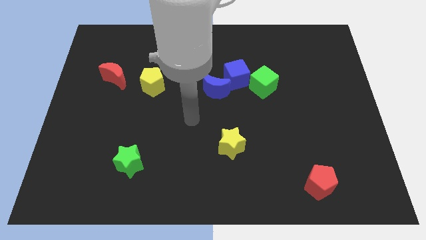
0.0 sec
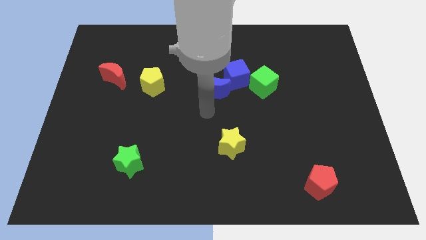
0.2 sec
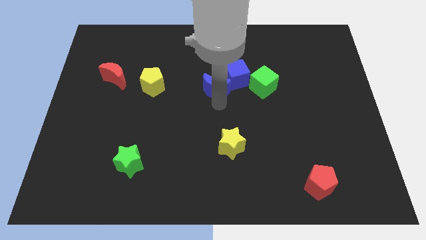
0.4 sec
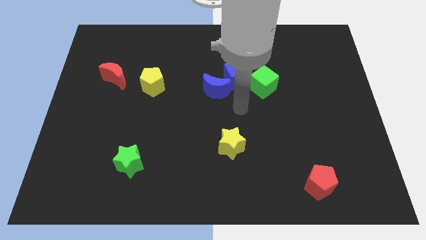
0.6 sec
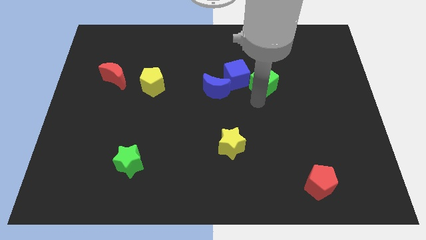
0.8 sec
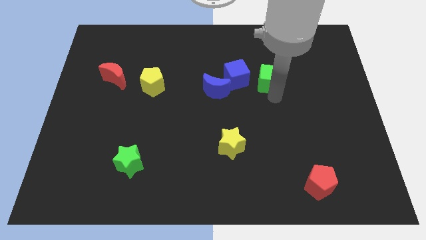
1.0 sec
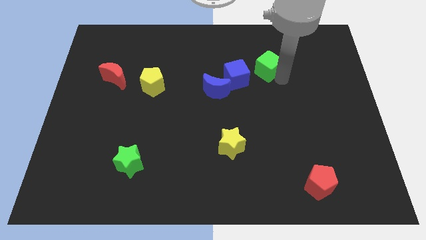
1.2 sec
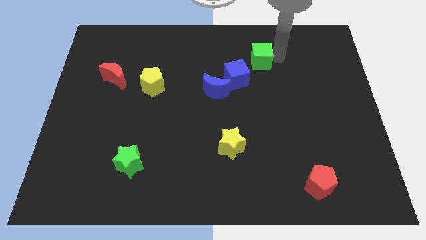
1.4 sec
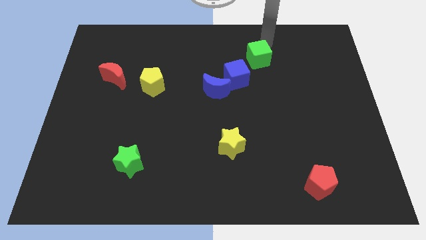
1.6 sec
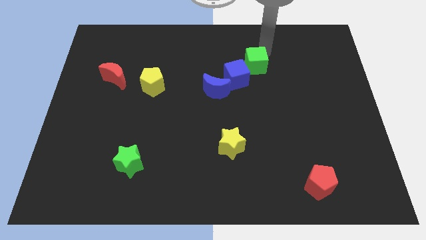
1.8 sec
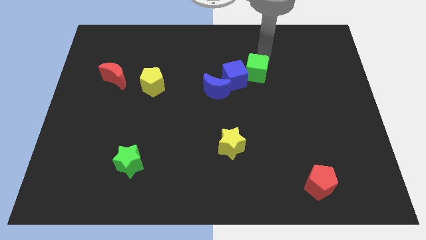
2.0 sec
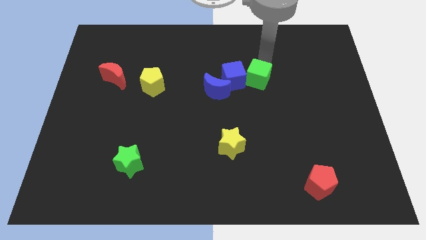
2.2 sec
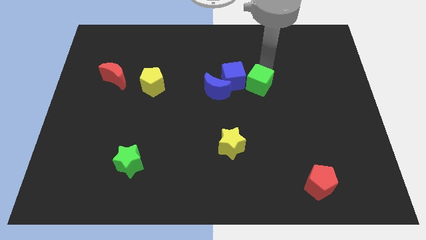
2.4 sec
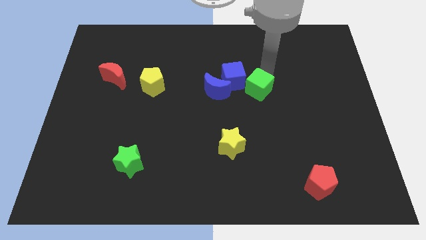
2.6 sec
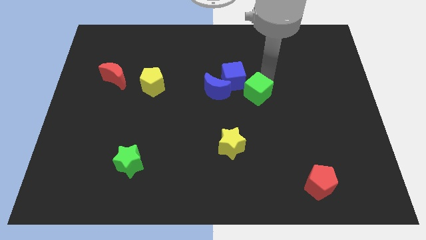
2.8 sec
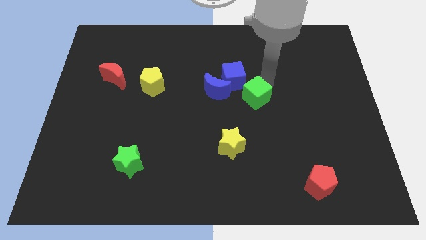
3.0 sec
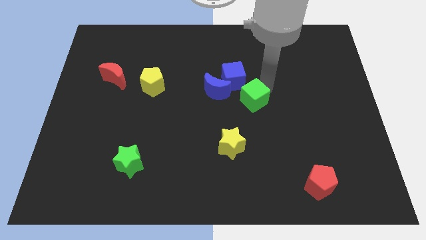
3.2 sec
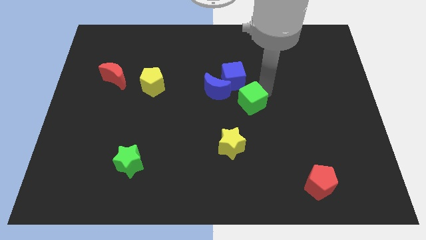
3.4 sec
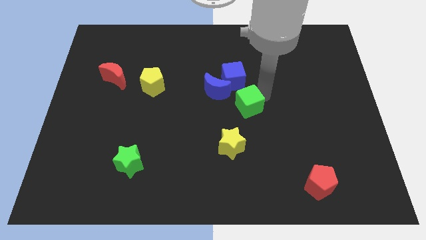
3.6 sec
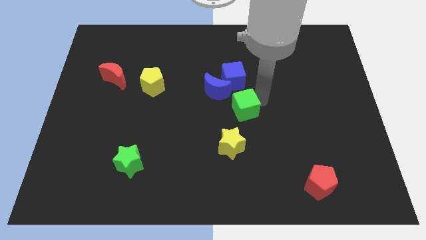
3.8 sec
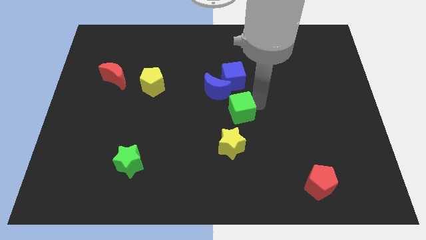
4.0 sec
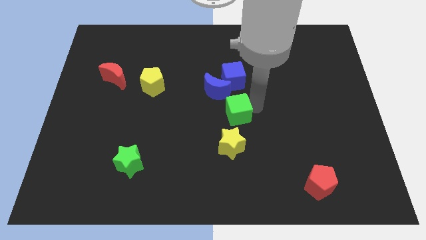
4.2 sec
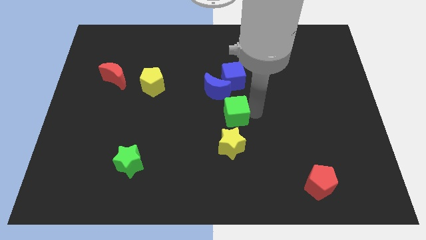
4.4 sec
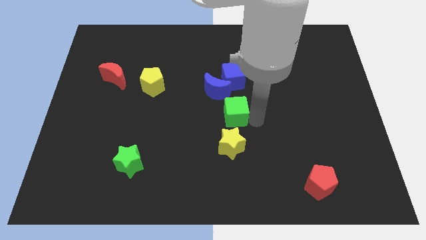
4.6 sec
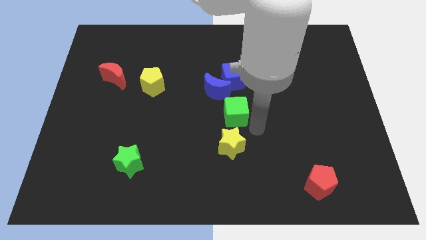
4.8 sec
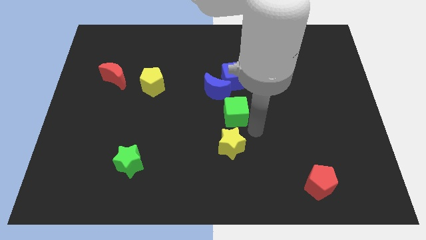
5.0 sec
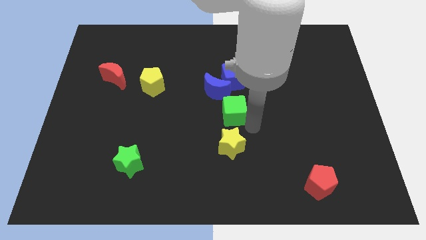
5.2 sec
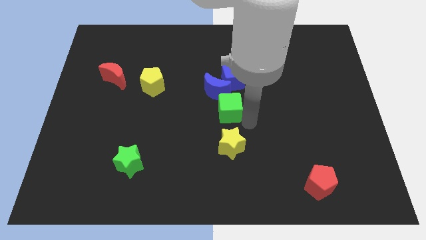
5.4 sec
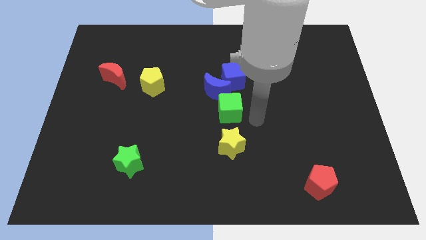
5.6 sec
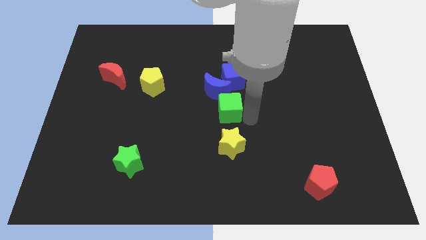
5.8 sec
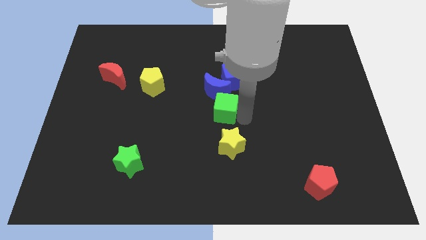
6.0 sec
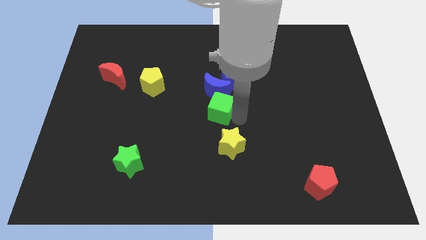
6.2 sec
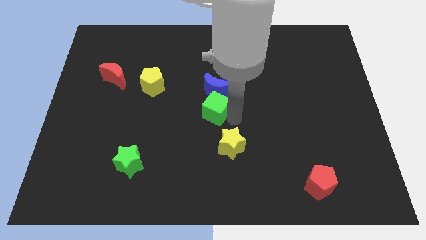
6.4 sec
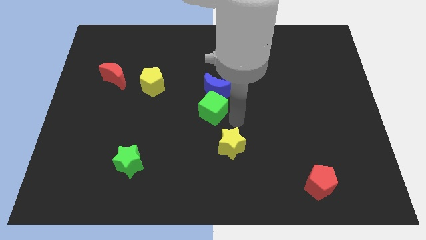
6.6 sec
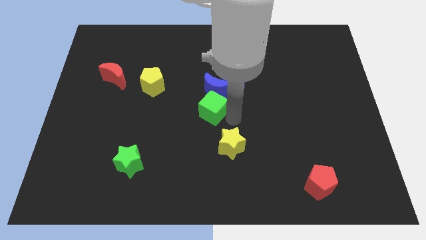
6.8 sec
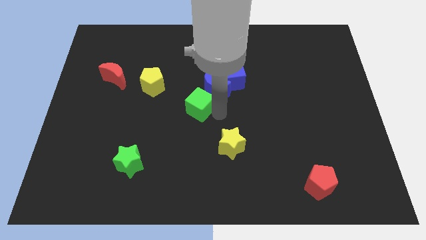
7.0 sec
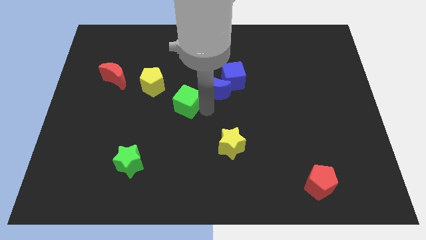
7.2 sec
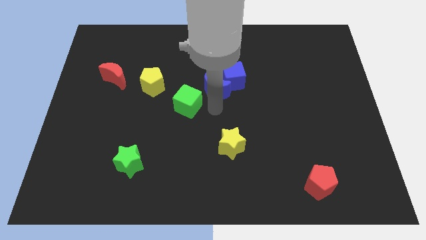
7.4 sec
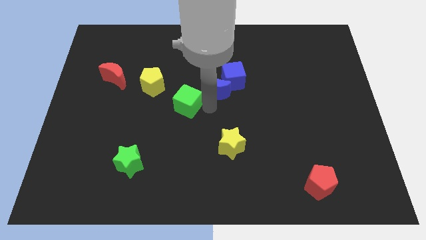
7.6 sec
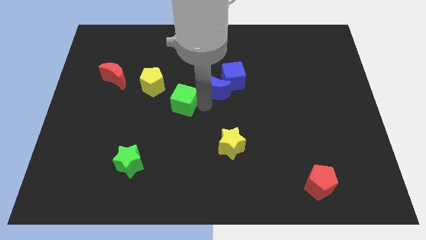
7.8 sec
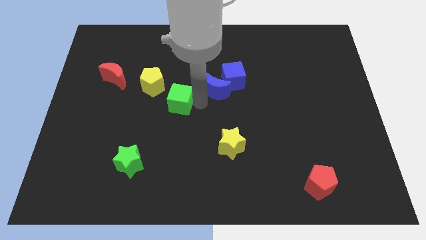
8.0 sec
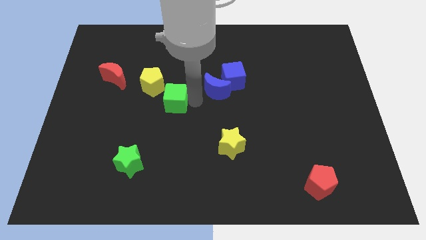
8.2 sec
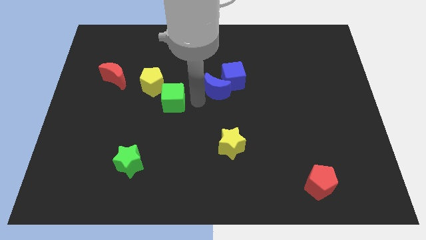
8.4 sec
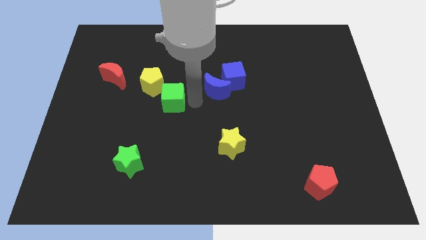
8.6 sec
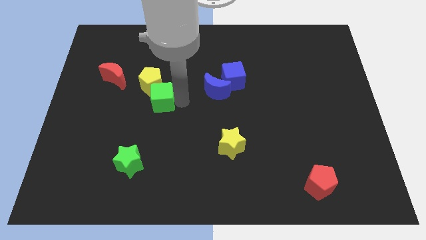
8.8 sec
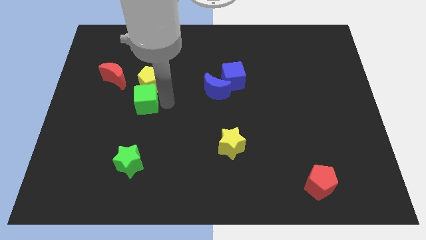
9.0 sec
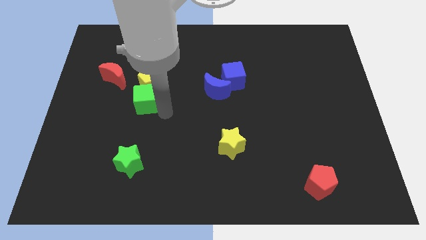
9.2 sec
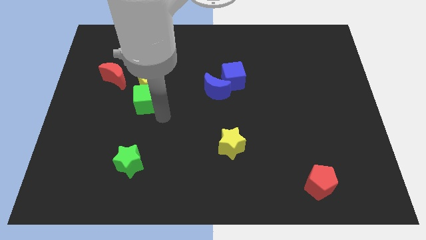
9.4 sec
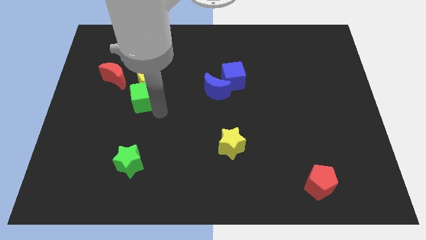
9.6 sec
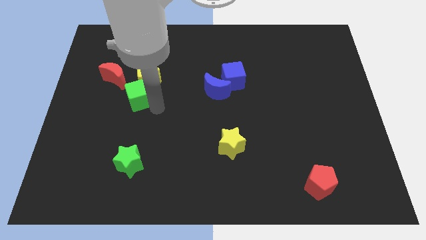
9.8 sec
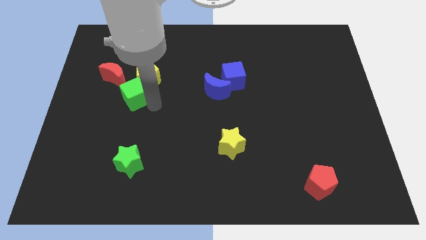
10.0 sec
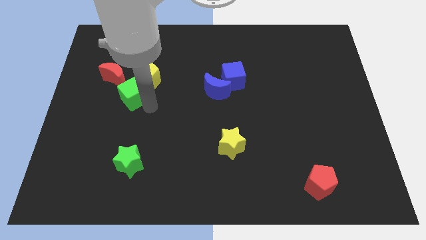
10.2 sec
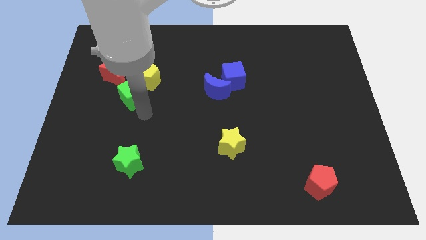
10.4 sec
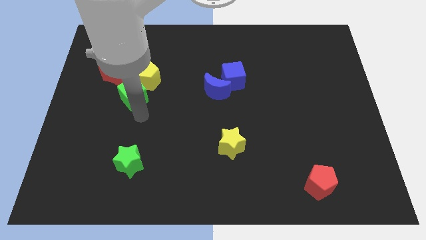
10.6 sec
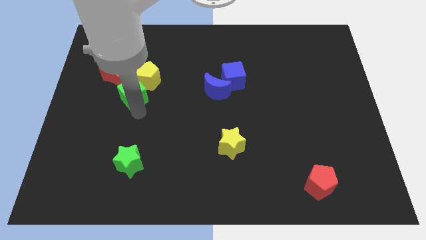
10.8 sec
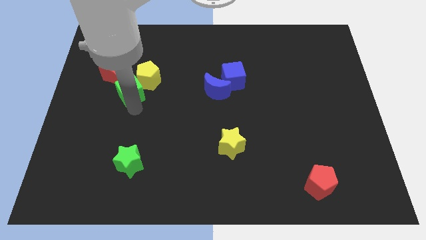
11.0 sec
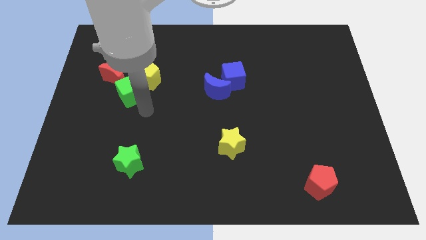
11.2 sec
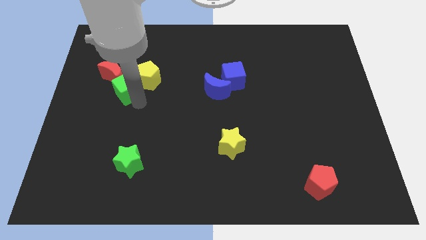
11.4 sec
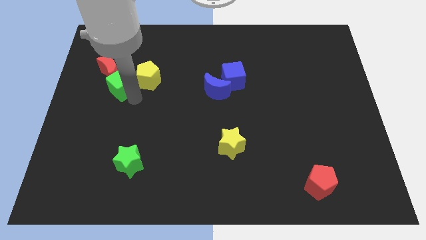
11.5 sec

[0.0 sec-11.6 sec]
move the green cube towards the red moon

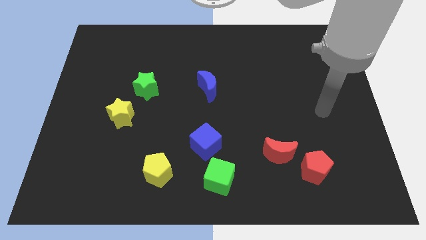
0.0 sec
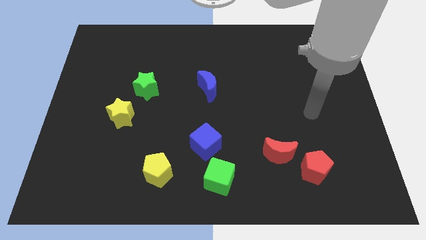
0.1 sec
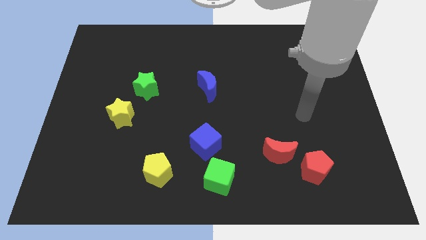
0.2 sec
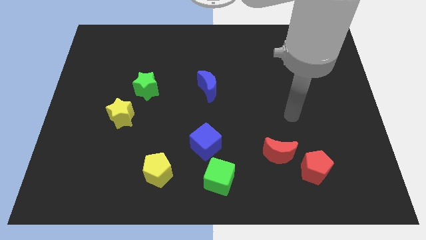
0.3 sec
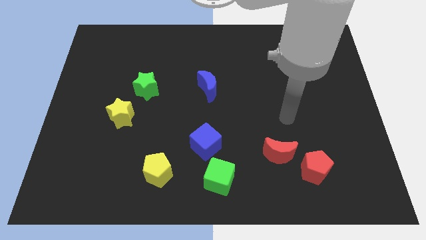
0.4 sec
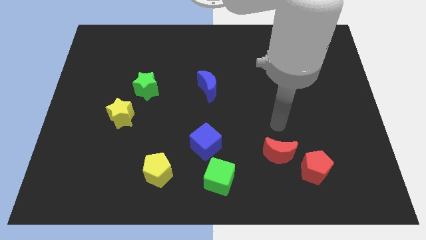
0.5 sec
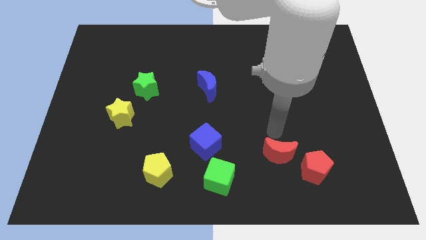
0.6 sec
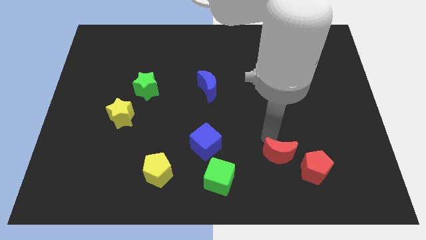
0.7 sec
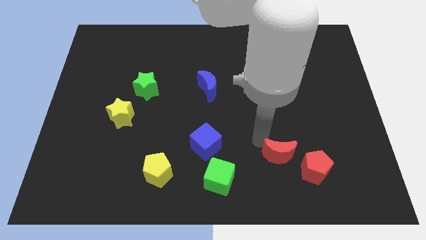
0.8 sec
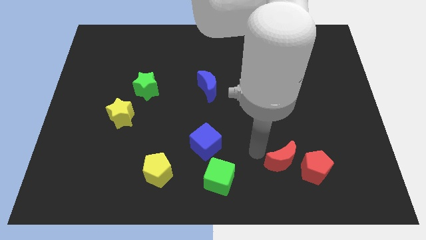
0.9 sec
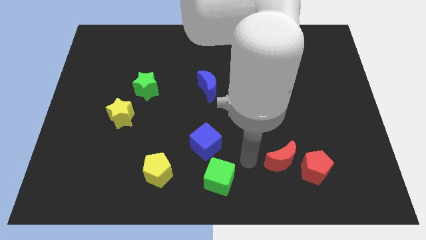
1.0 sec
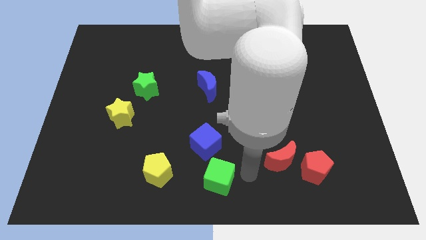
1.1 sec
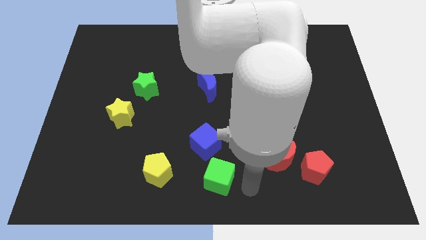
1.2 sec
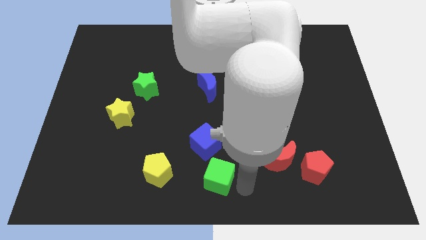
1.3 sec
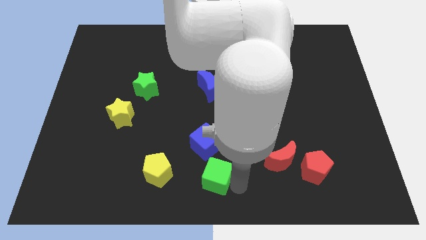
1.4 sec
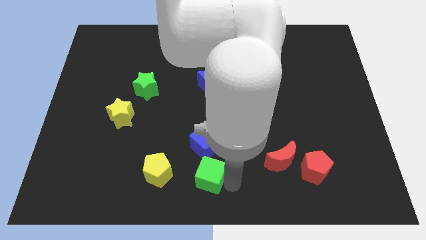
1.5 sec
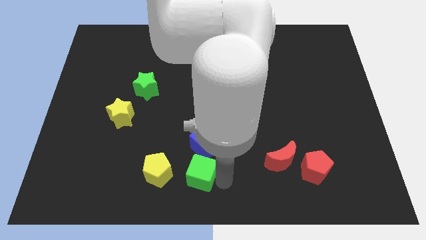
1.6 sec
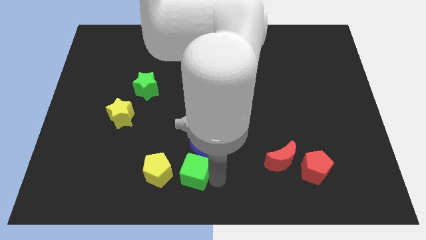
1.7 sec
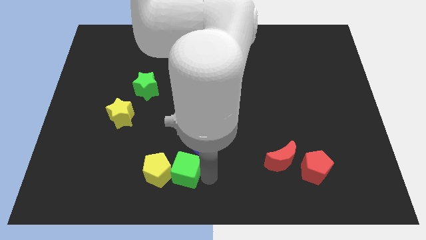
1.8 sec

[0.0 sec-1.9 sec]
move the green cube close to the yellow pentagon
